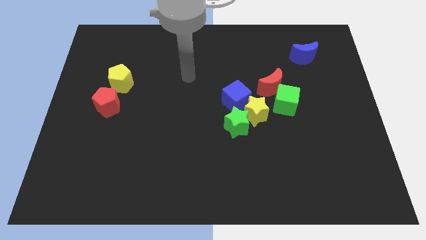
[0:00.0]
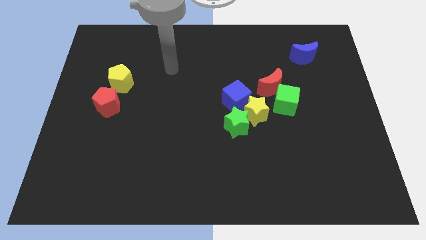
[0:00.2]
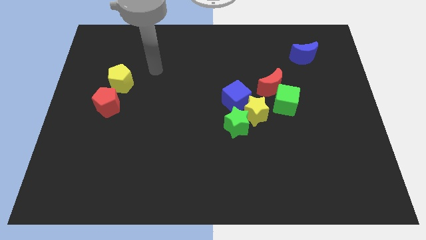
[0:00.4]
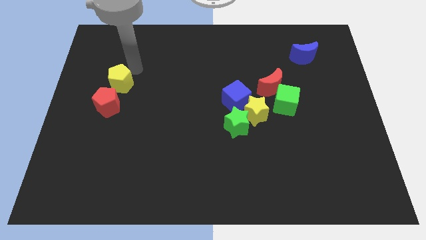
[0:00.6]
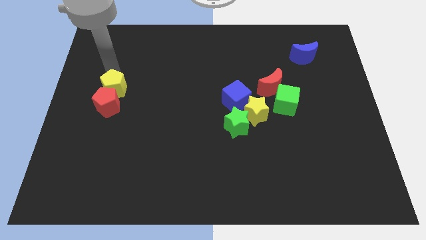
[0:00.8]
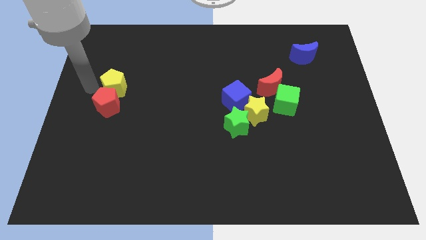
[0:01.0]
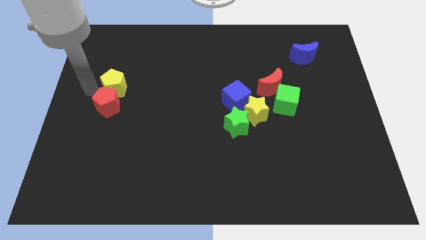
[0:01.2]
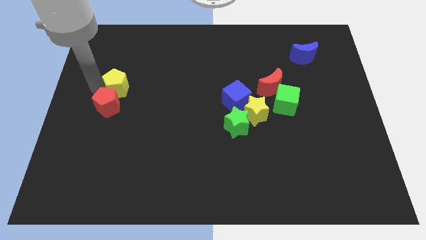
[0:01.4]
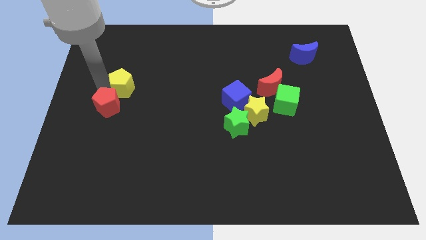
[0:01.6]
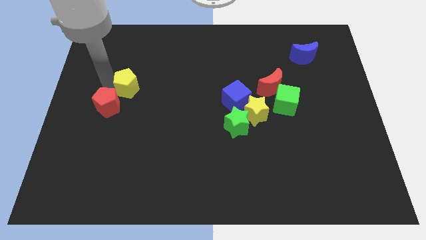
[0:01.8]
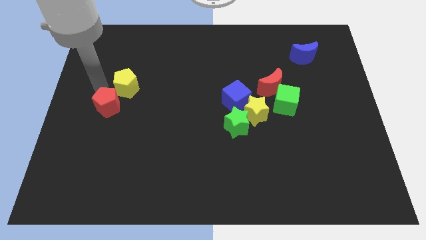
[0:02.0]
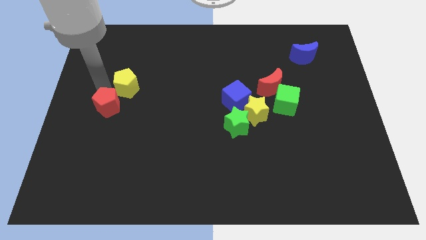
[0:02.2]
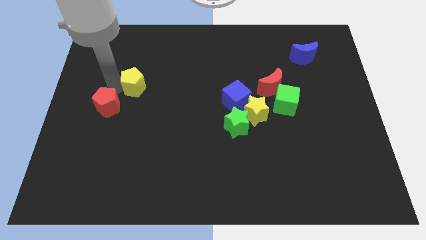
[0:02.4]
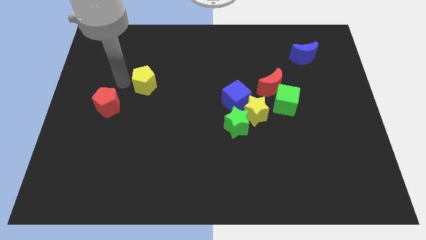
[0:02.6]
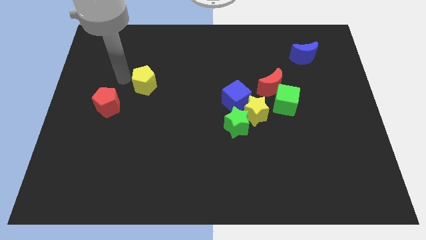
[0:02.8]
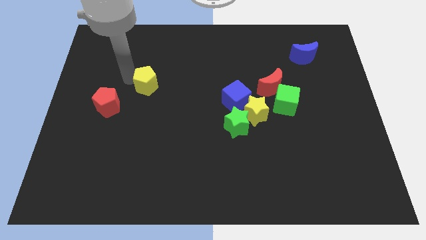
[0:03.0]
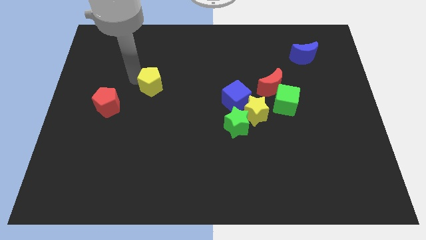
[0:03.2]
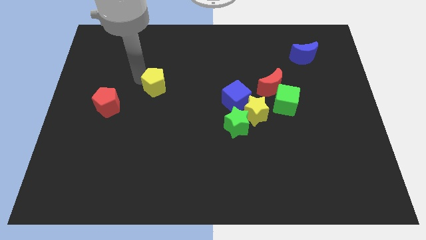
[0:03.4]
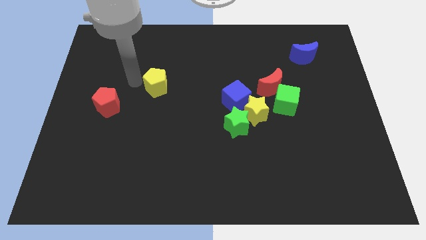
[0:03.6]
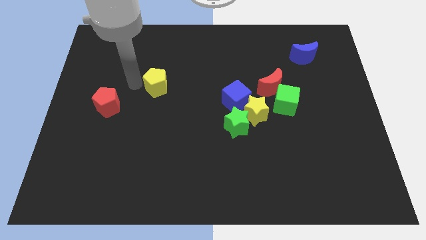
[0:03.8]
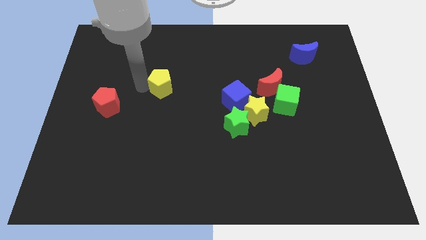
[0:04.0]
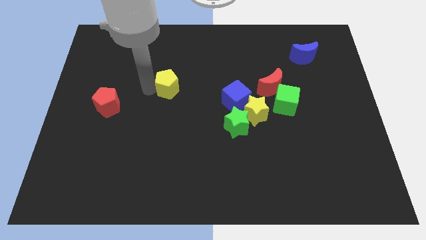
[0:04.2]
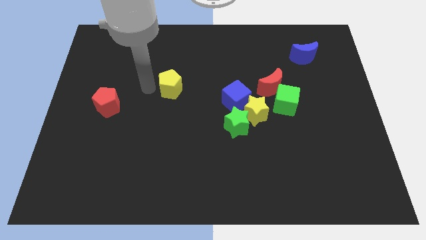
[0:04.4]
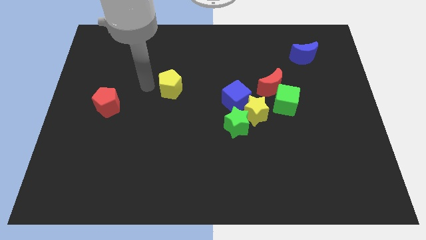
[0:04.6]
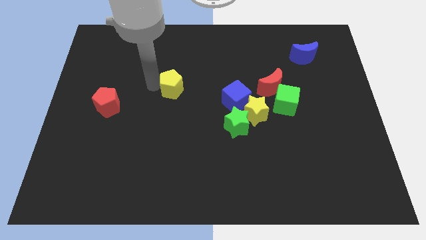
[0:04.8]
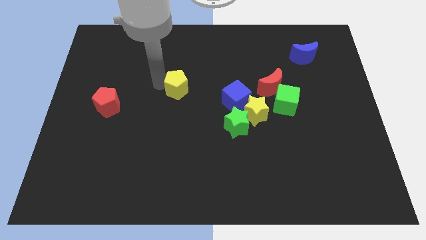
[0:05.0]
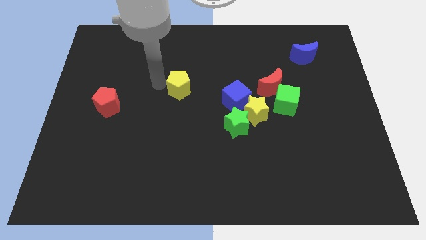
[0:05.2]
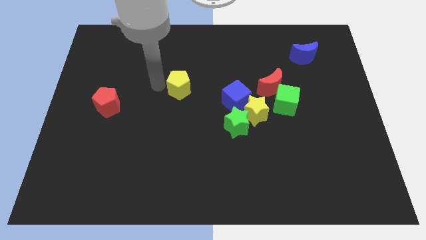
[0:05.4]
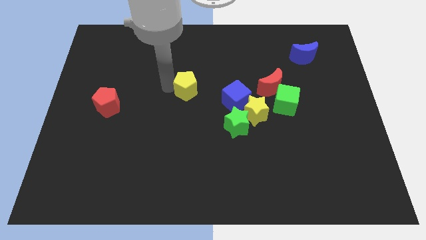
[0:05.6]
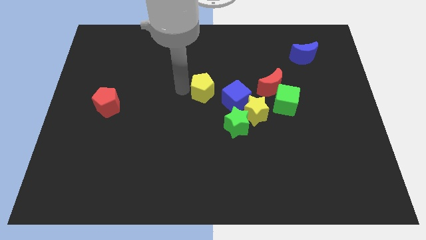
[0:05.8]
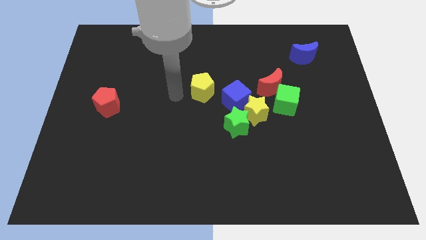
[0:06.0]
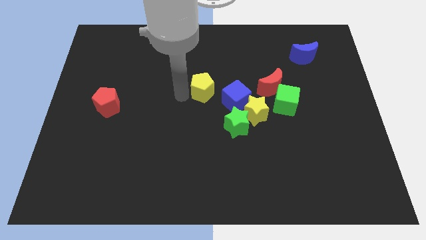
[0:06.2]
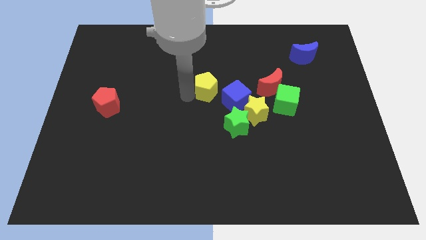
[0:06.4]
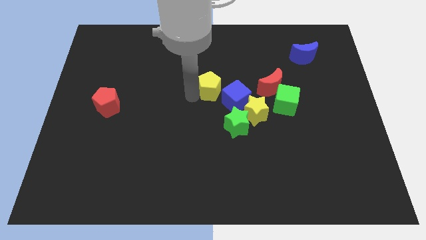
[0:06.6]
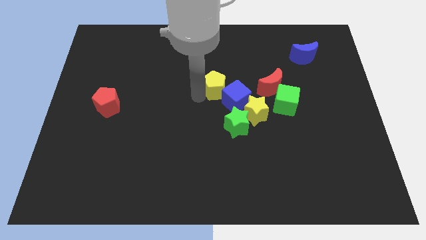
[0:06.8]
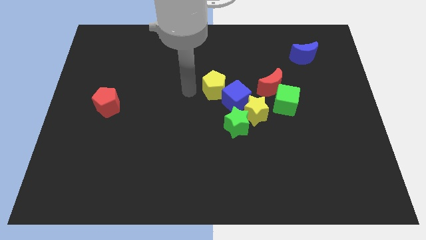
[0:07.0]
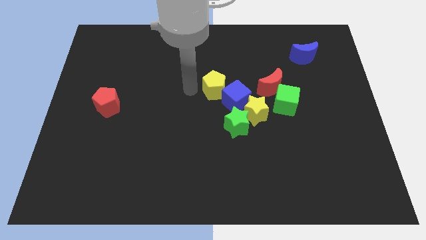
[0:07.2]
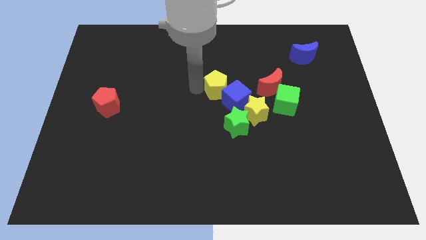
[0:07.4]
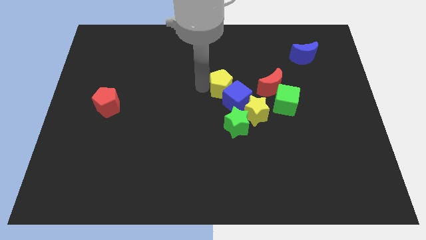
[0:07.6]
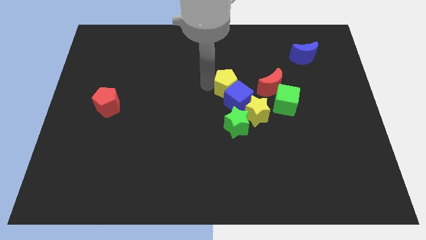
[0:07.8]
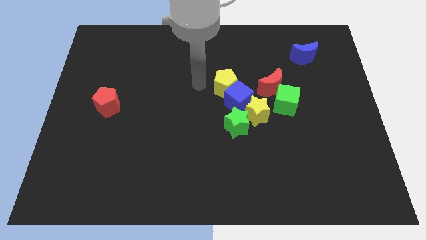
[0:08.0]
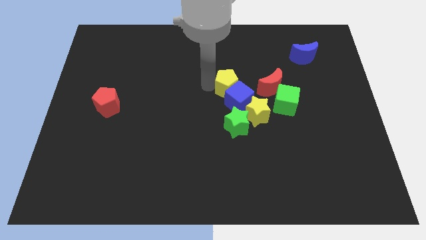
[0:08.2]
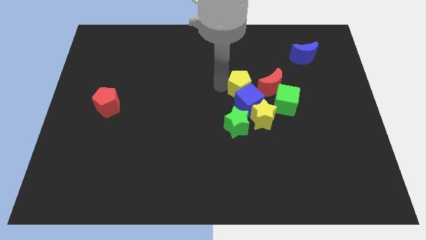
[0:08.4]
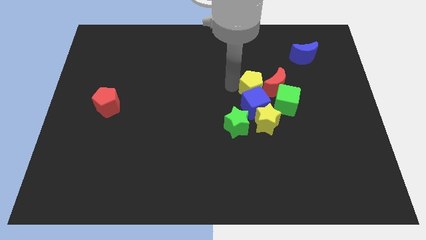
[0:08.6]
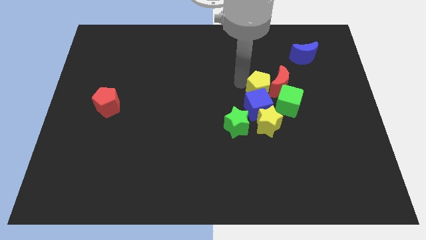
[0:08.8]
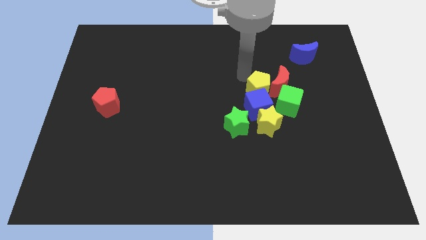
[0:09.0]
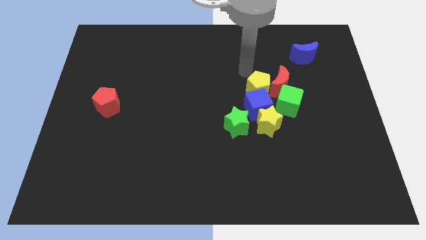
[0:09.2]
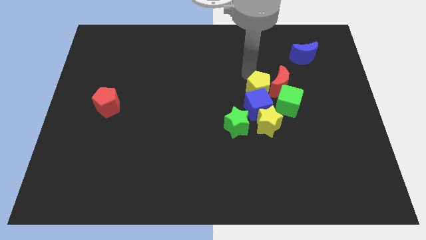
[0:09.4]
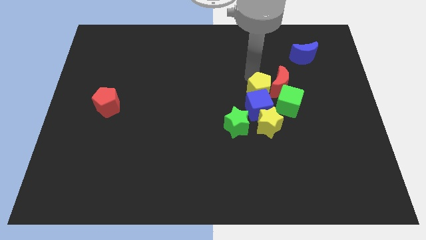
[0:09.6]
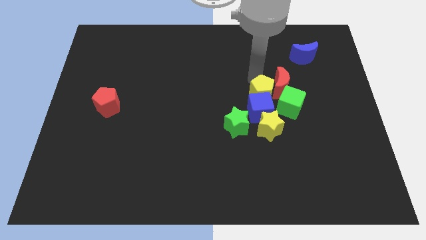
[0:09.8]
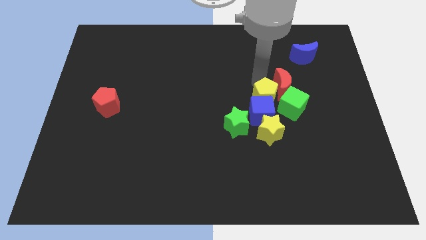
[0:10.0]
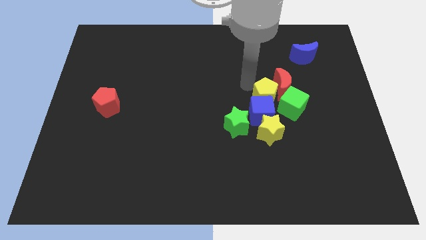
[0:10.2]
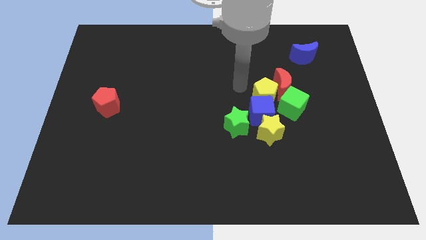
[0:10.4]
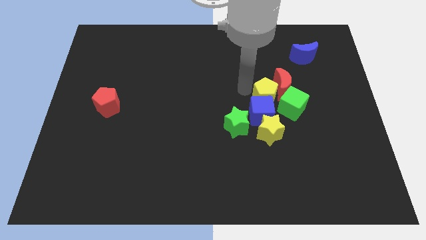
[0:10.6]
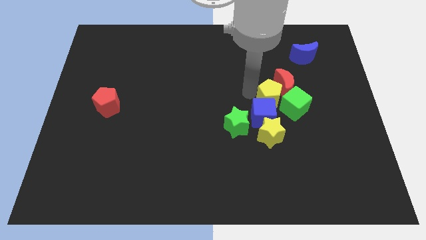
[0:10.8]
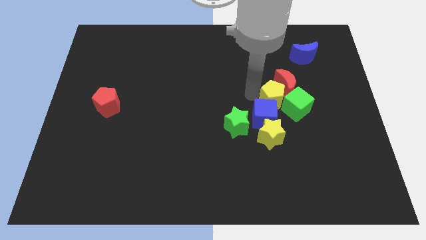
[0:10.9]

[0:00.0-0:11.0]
move the yellow pentagon close to the green cube

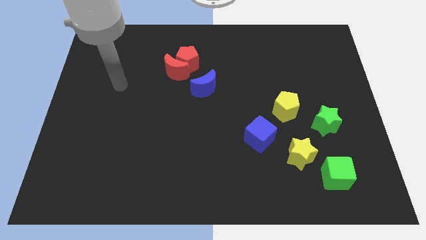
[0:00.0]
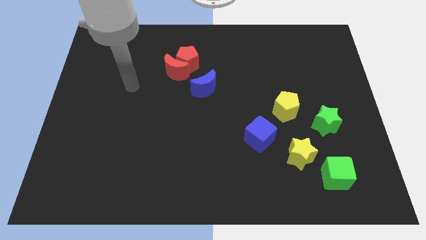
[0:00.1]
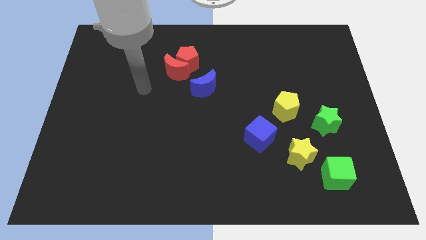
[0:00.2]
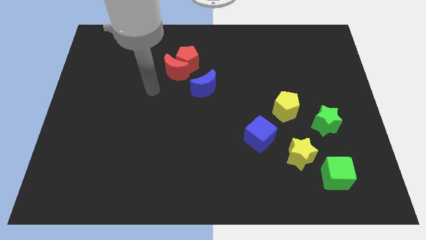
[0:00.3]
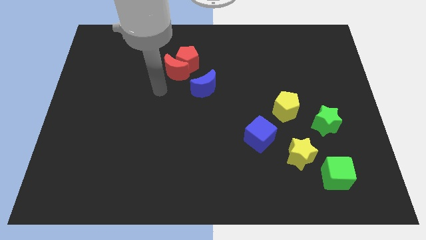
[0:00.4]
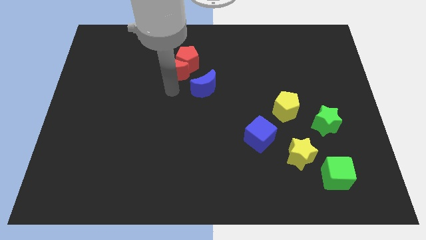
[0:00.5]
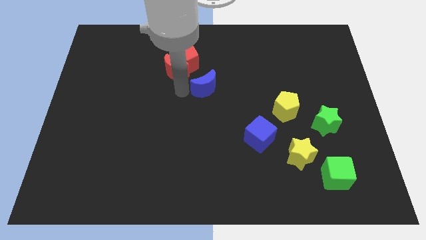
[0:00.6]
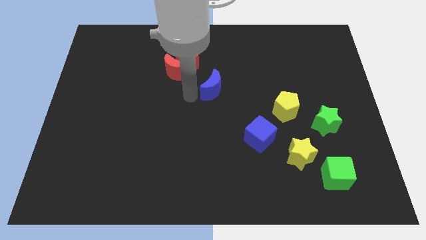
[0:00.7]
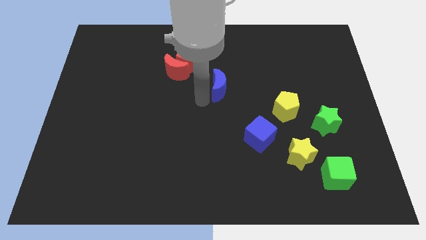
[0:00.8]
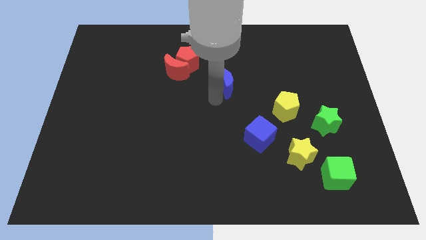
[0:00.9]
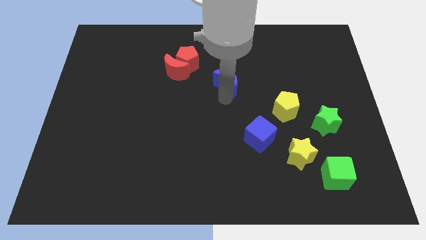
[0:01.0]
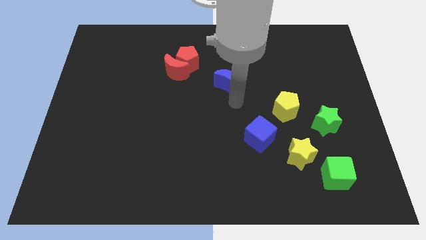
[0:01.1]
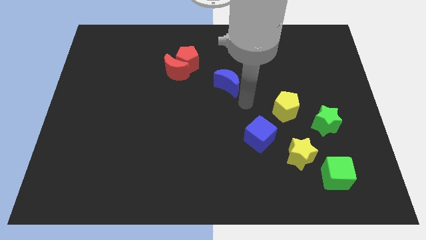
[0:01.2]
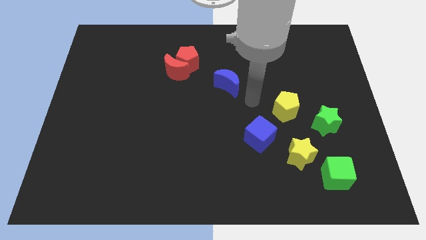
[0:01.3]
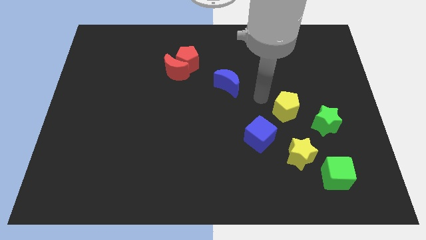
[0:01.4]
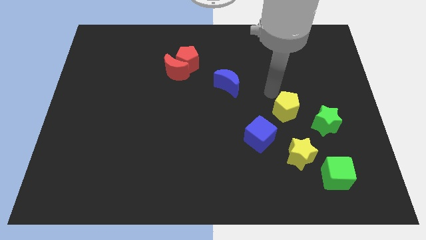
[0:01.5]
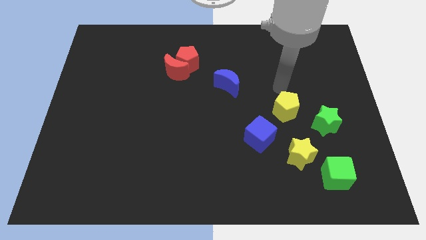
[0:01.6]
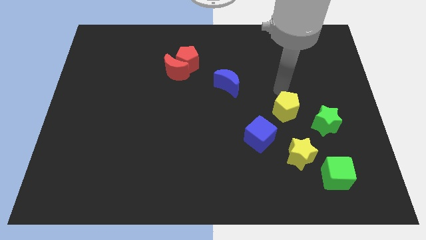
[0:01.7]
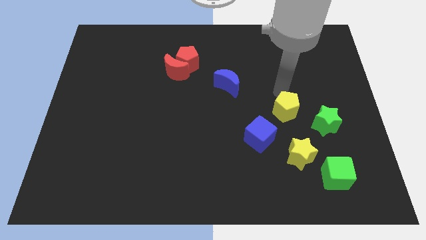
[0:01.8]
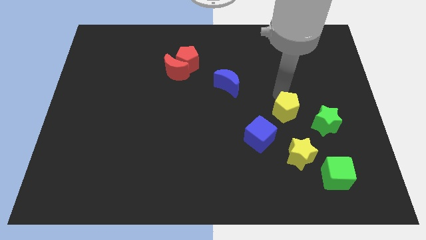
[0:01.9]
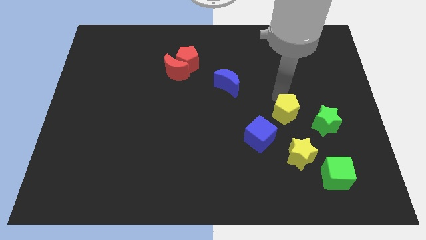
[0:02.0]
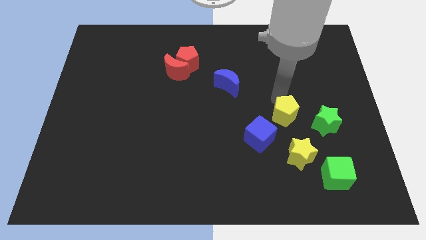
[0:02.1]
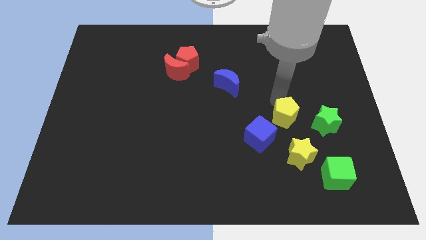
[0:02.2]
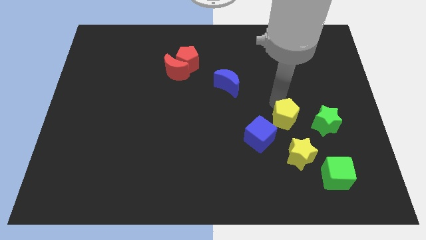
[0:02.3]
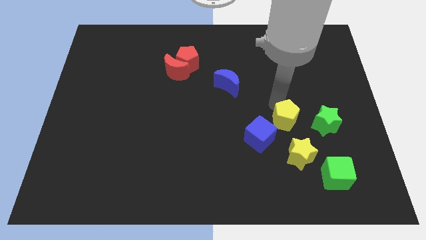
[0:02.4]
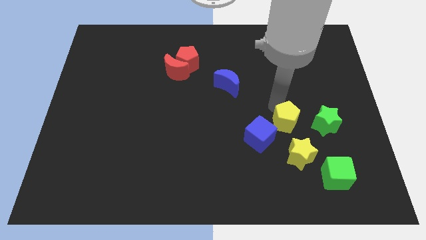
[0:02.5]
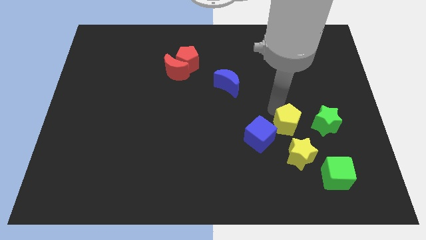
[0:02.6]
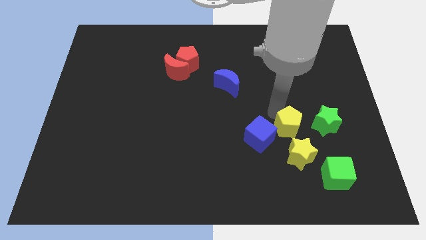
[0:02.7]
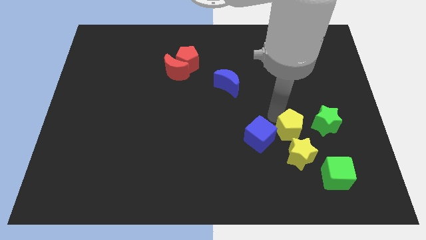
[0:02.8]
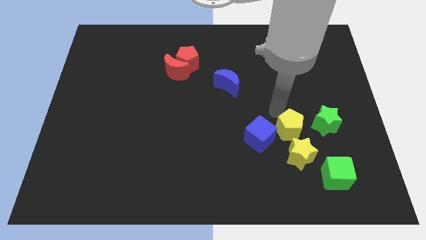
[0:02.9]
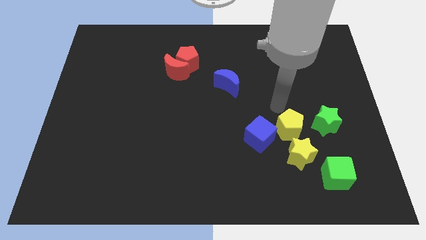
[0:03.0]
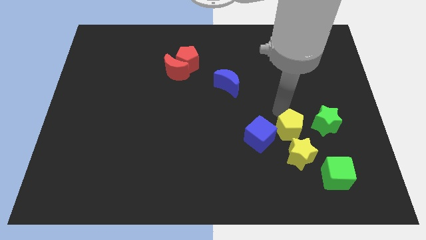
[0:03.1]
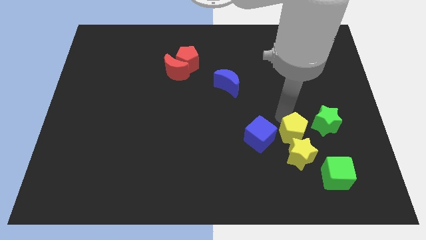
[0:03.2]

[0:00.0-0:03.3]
move the yellow pentagon next to the yellow star
